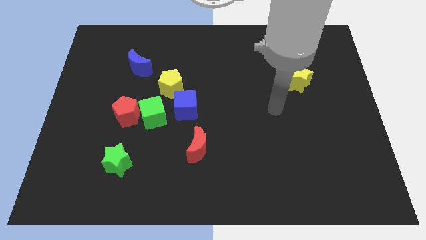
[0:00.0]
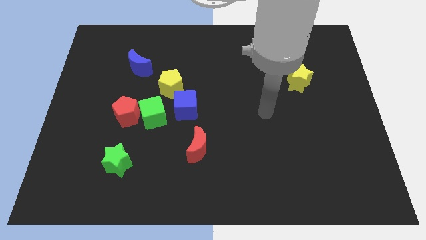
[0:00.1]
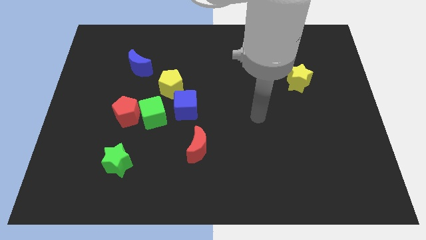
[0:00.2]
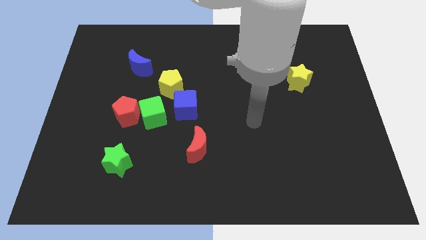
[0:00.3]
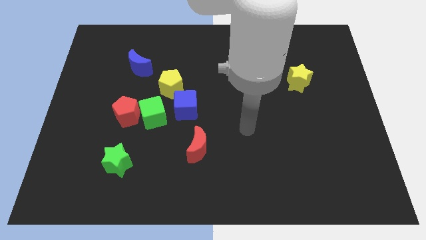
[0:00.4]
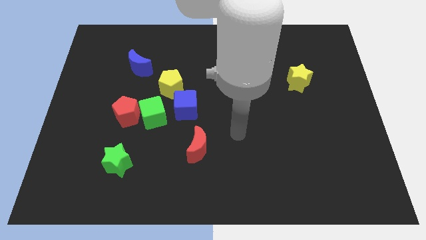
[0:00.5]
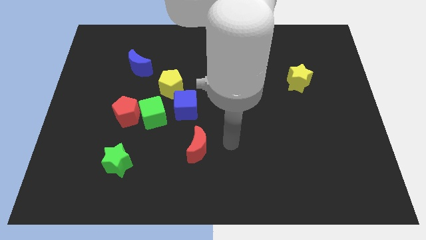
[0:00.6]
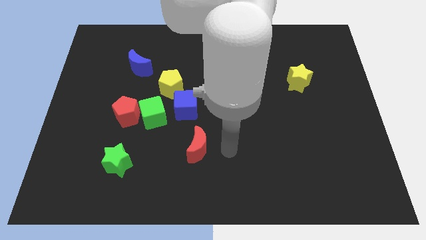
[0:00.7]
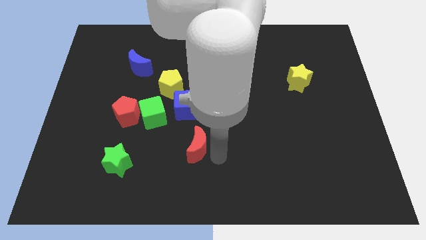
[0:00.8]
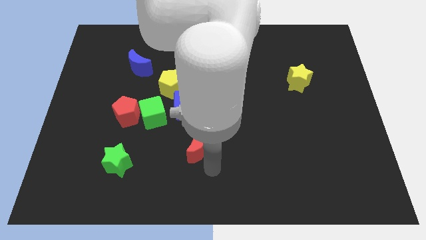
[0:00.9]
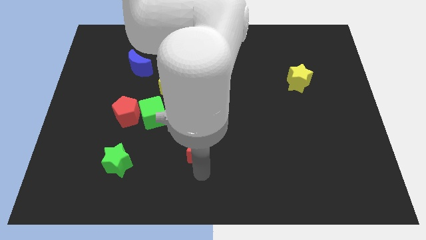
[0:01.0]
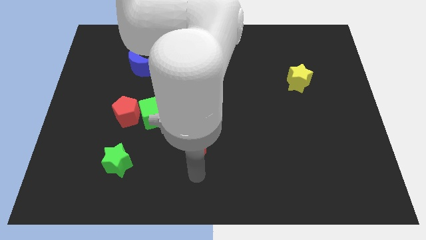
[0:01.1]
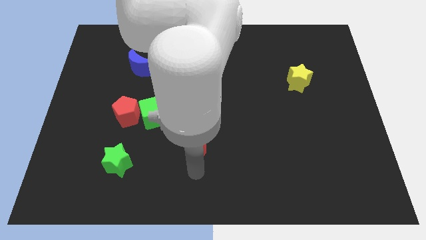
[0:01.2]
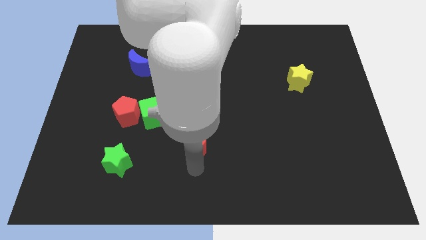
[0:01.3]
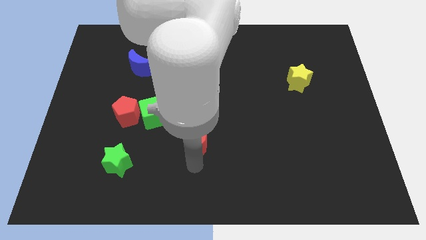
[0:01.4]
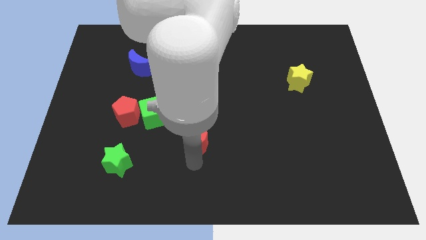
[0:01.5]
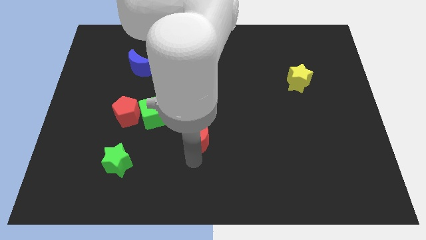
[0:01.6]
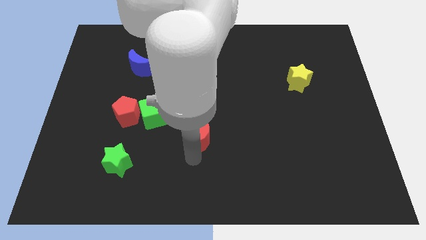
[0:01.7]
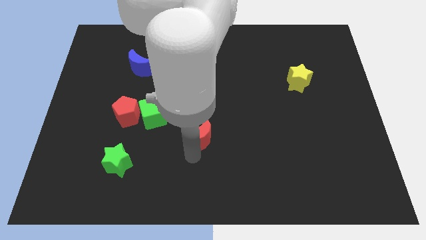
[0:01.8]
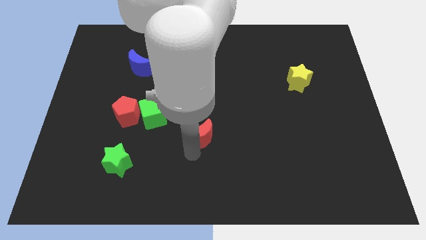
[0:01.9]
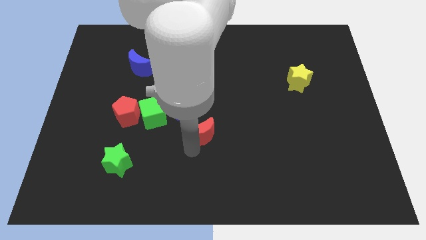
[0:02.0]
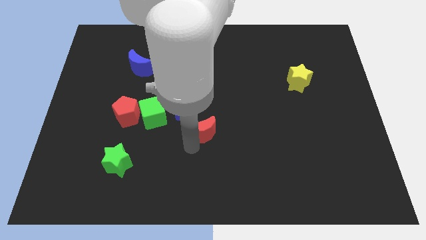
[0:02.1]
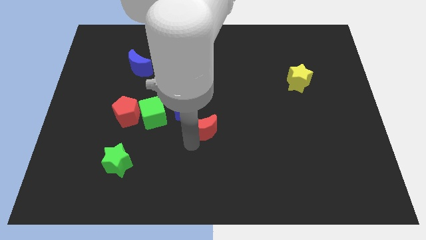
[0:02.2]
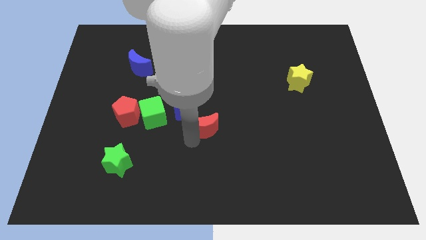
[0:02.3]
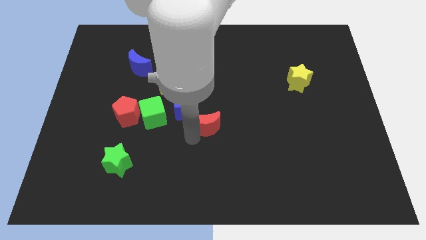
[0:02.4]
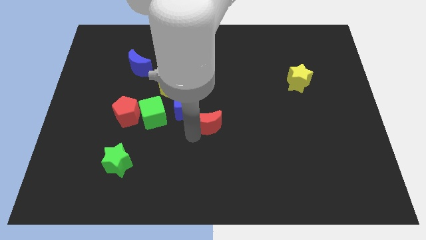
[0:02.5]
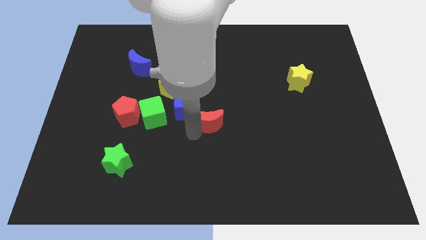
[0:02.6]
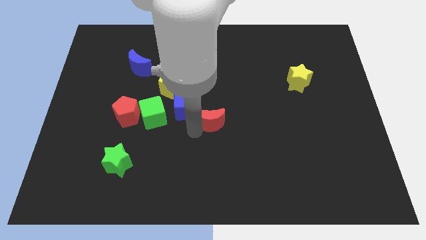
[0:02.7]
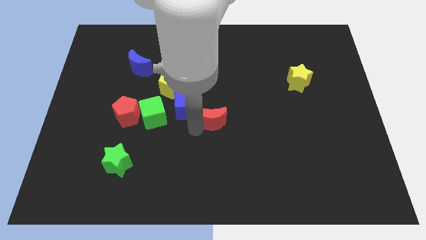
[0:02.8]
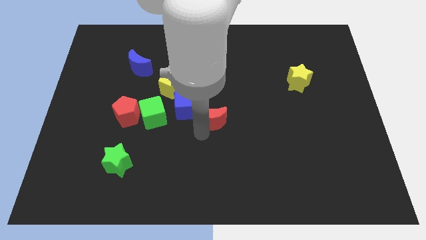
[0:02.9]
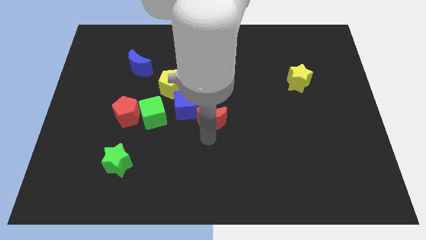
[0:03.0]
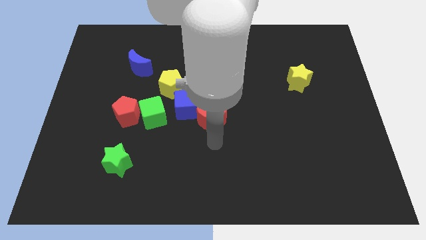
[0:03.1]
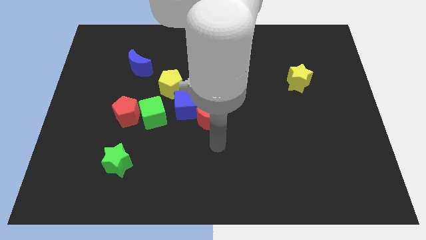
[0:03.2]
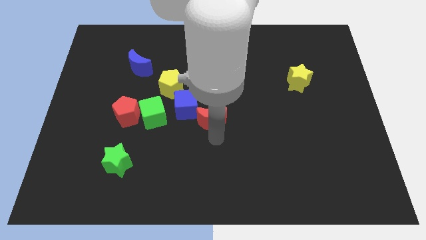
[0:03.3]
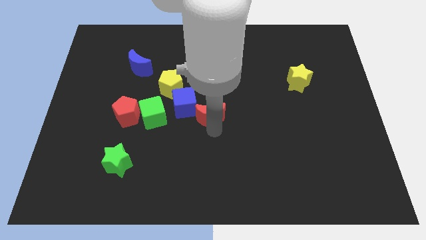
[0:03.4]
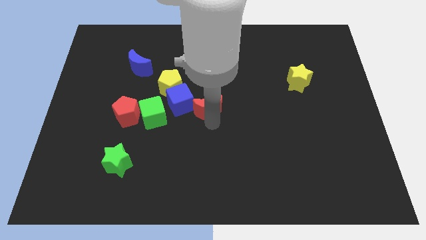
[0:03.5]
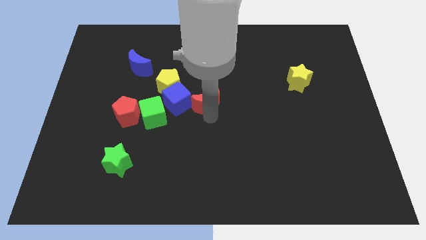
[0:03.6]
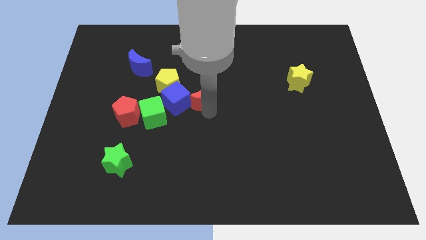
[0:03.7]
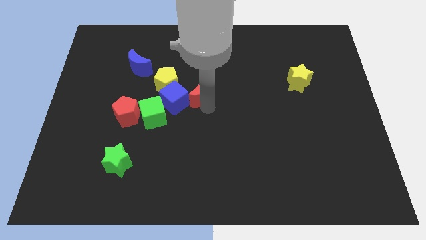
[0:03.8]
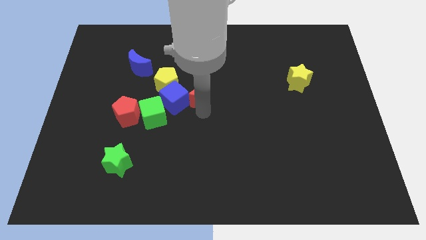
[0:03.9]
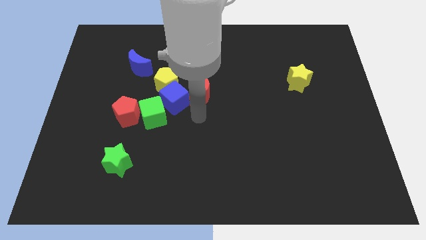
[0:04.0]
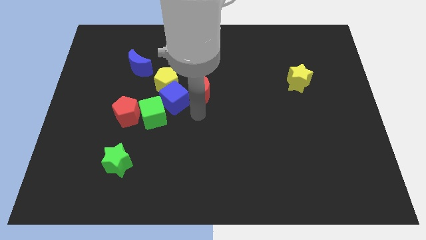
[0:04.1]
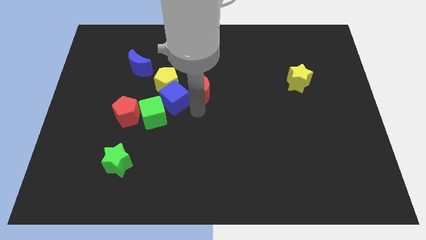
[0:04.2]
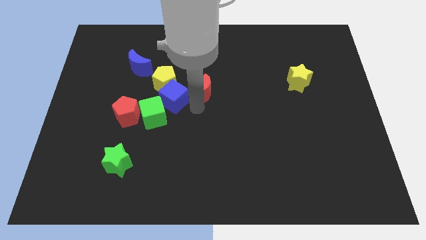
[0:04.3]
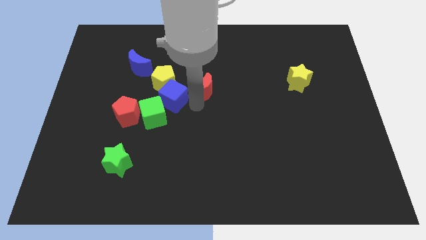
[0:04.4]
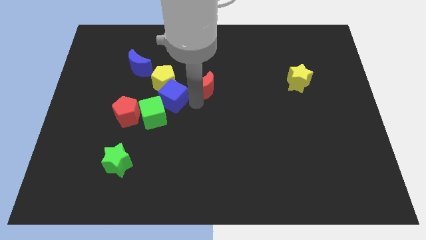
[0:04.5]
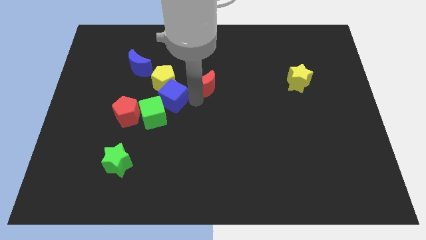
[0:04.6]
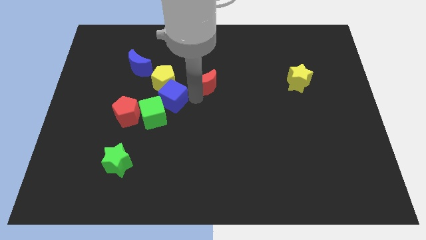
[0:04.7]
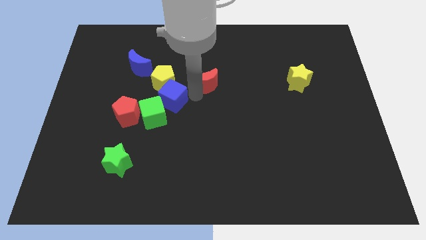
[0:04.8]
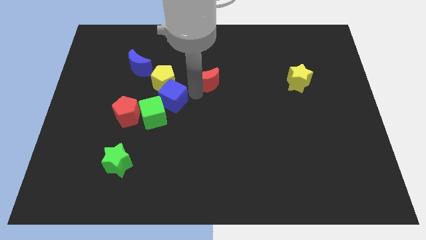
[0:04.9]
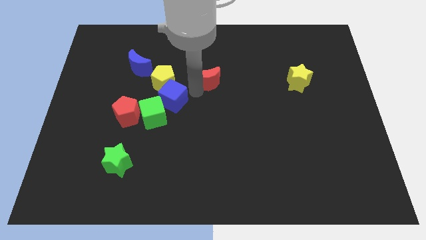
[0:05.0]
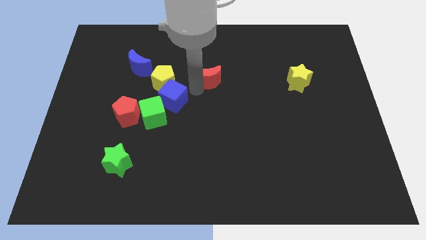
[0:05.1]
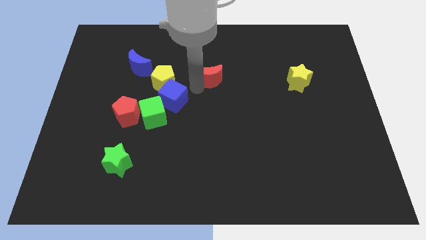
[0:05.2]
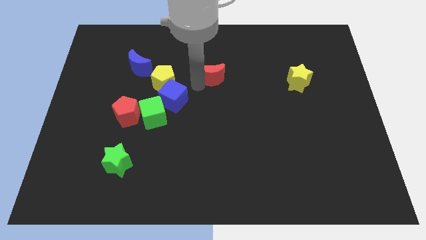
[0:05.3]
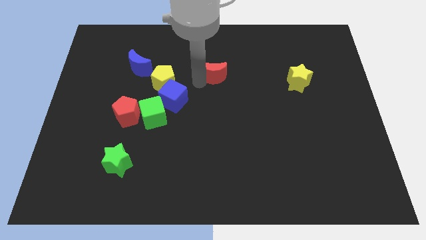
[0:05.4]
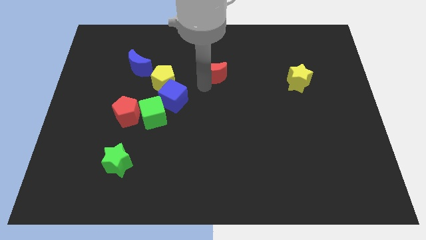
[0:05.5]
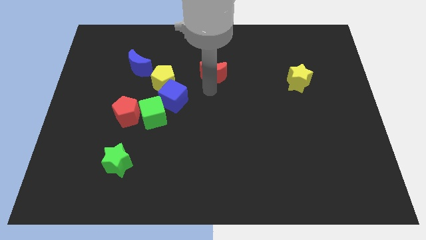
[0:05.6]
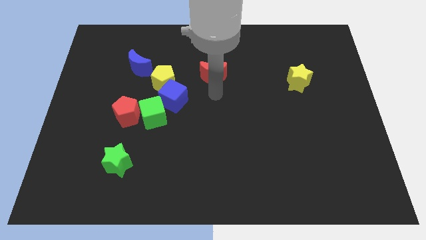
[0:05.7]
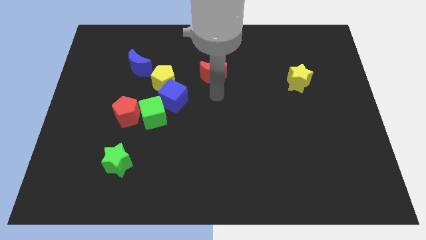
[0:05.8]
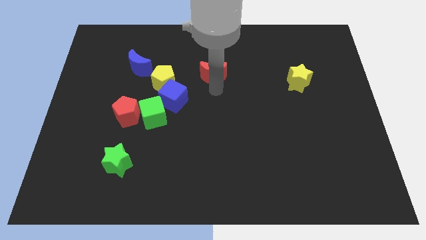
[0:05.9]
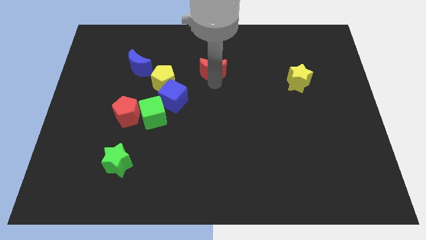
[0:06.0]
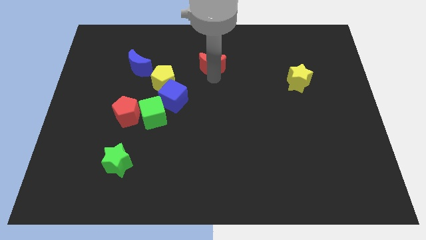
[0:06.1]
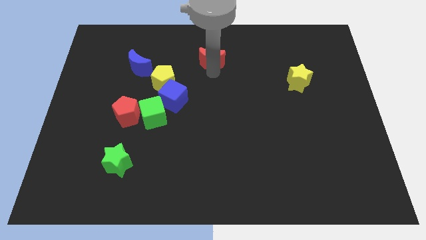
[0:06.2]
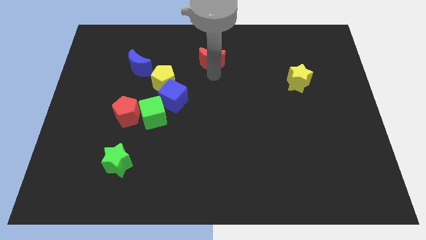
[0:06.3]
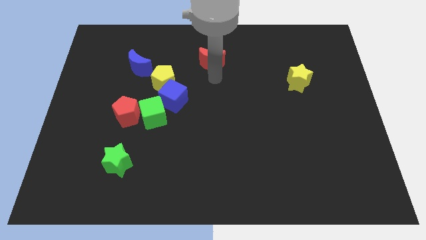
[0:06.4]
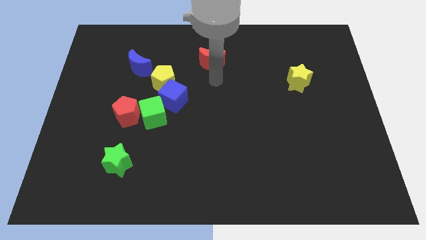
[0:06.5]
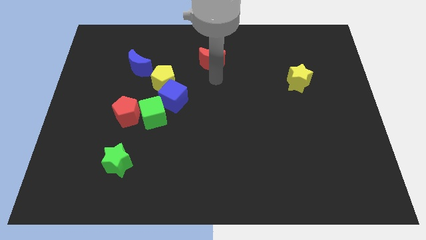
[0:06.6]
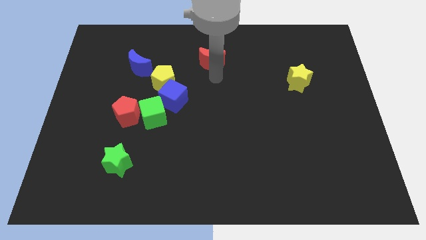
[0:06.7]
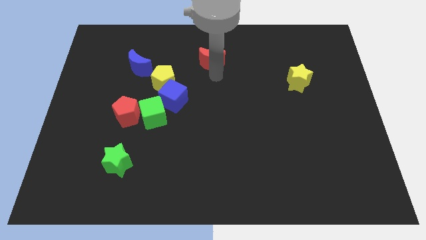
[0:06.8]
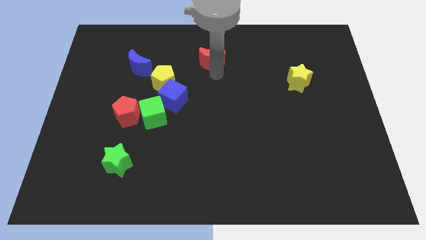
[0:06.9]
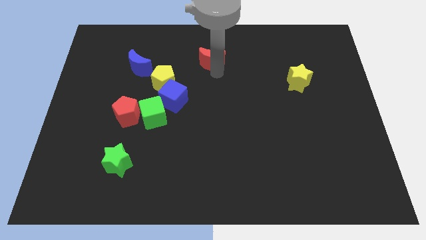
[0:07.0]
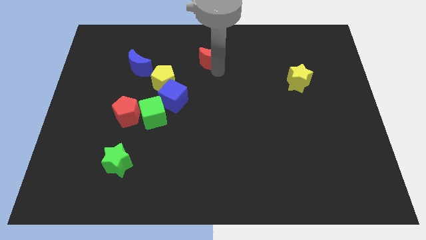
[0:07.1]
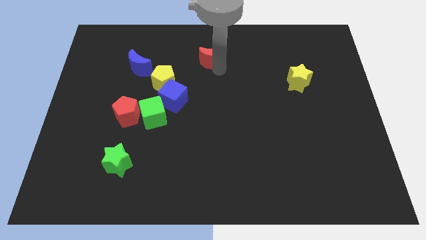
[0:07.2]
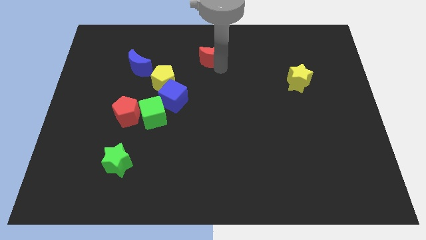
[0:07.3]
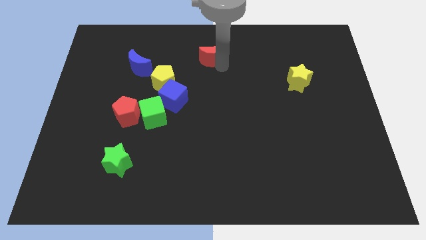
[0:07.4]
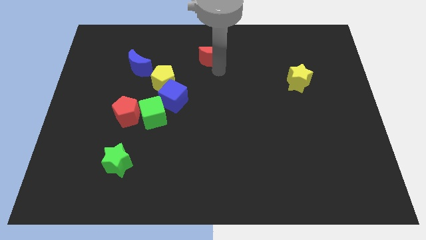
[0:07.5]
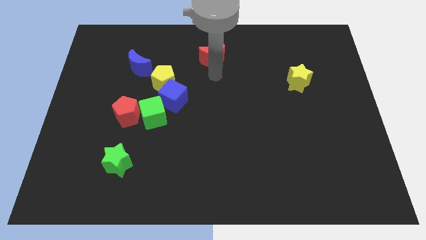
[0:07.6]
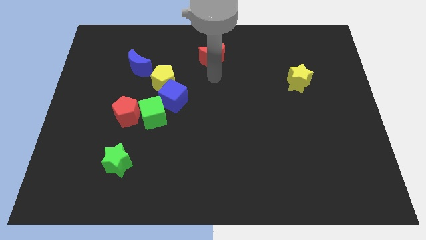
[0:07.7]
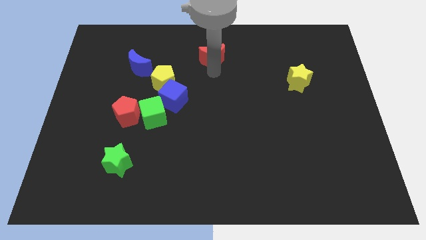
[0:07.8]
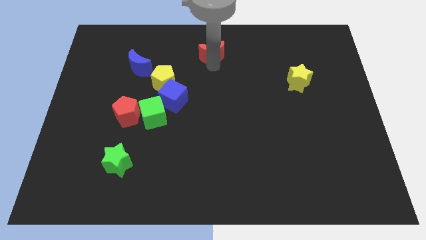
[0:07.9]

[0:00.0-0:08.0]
slide the red moon to the top side
